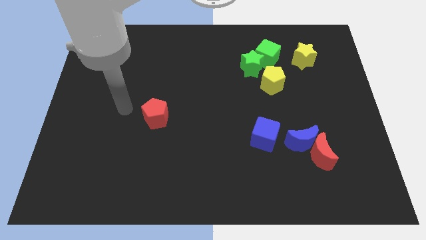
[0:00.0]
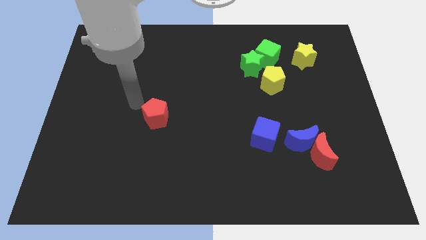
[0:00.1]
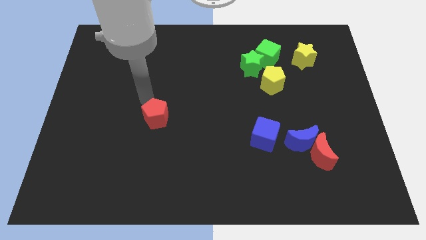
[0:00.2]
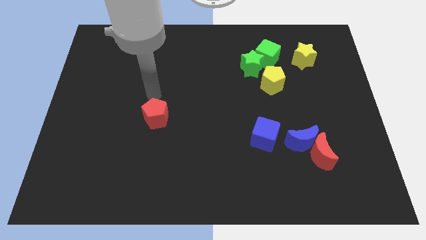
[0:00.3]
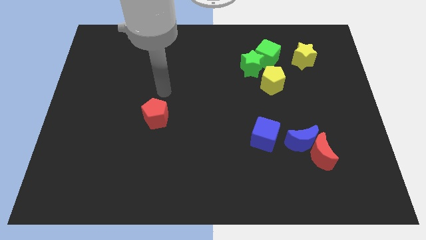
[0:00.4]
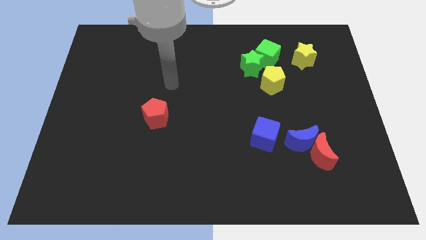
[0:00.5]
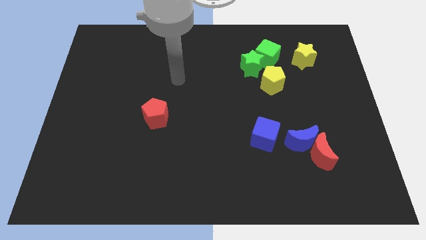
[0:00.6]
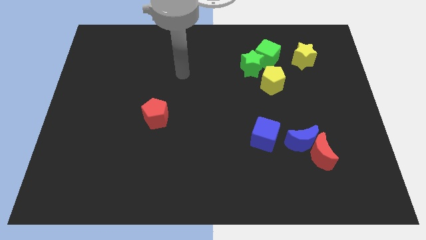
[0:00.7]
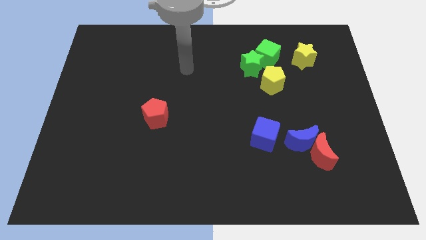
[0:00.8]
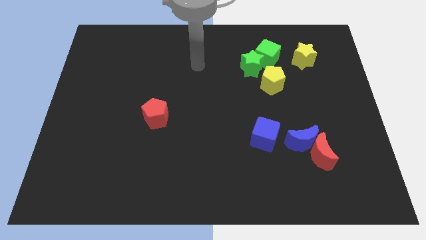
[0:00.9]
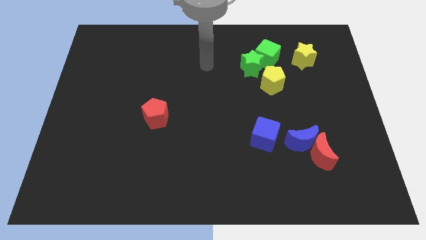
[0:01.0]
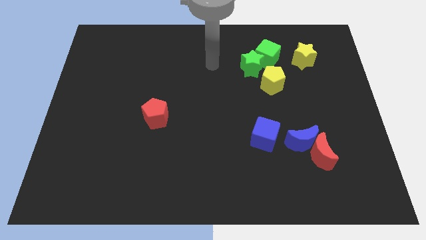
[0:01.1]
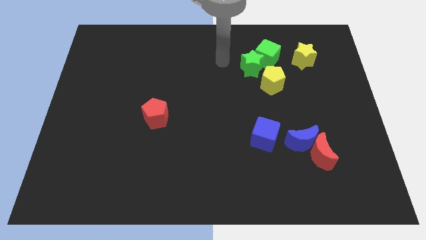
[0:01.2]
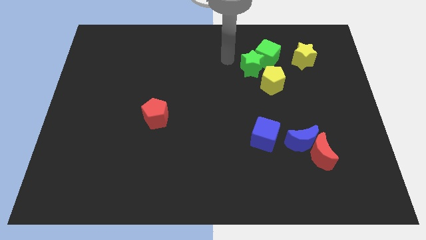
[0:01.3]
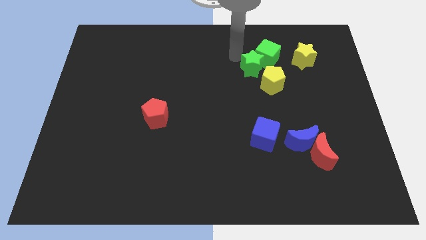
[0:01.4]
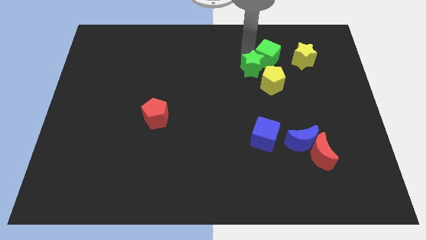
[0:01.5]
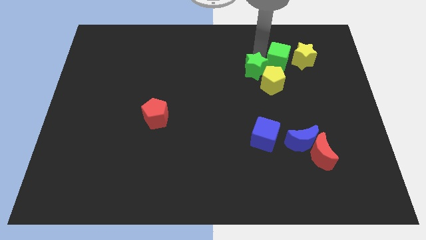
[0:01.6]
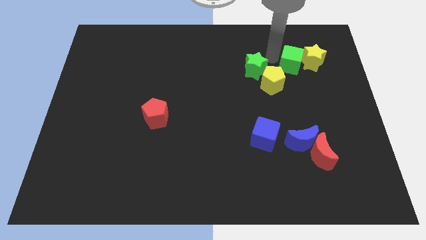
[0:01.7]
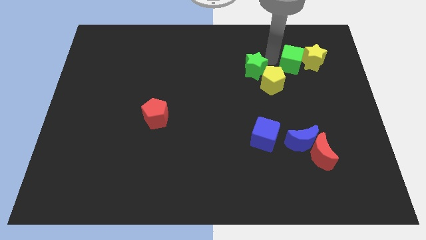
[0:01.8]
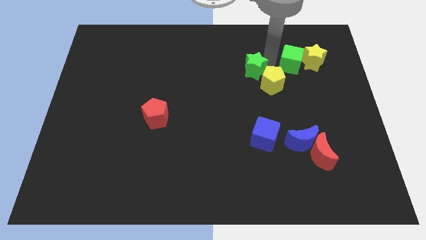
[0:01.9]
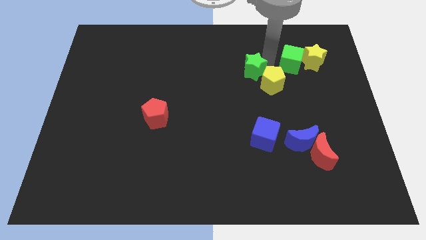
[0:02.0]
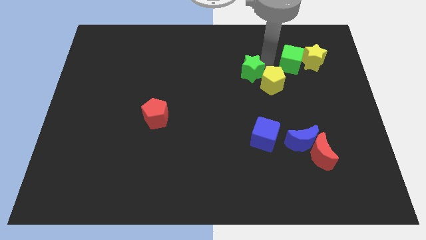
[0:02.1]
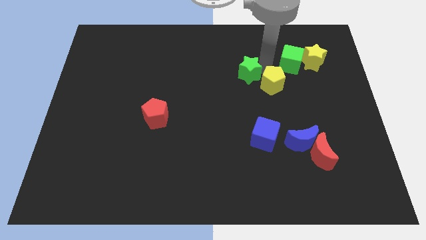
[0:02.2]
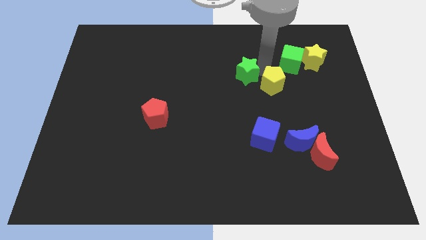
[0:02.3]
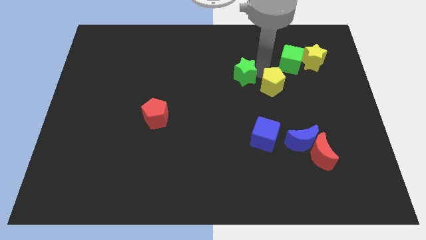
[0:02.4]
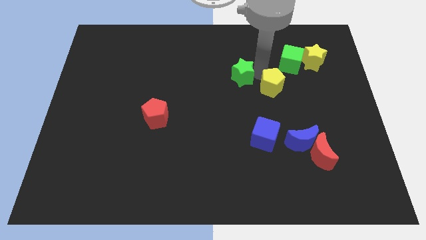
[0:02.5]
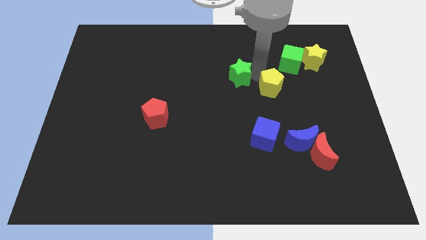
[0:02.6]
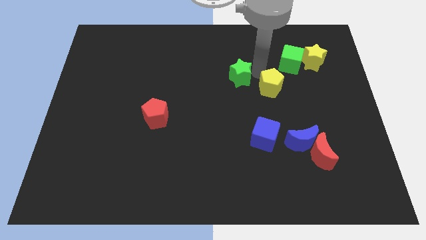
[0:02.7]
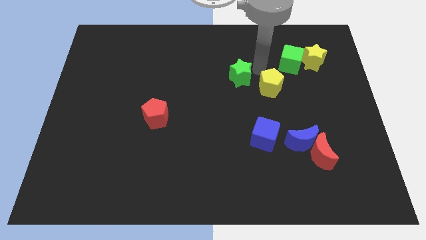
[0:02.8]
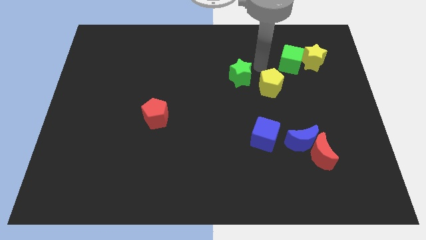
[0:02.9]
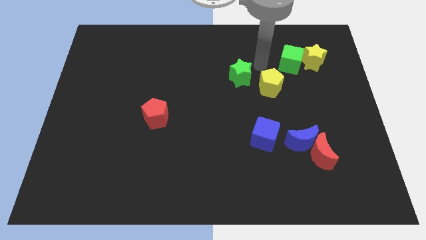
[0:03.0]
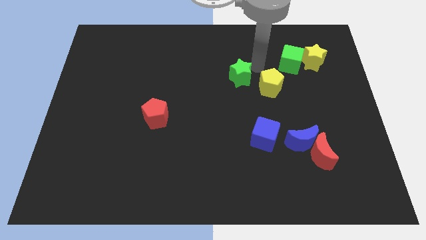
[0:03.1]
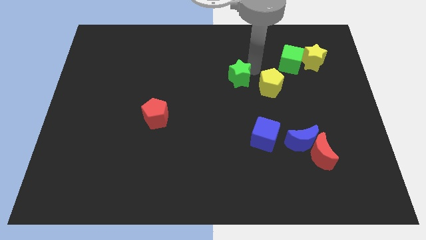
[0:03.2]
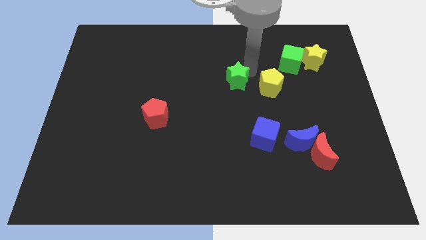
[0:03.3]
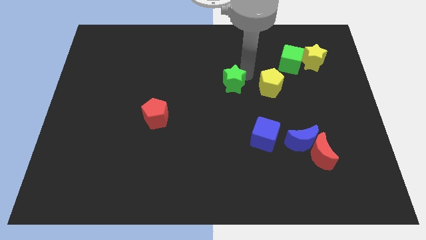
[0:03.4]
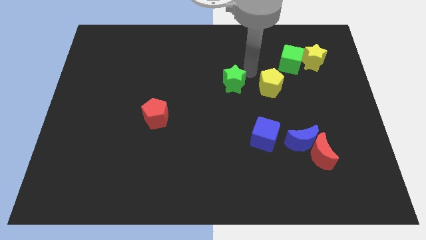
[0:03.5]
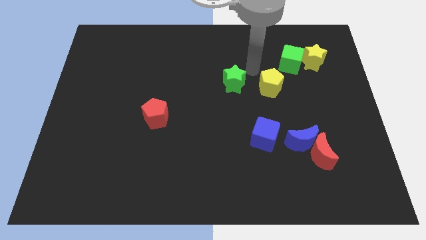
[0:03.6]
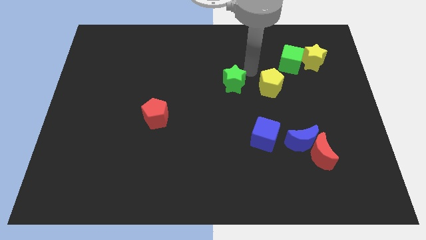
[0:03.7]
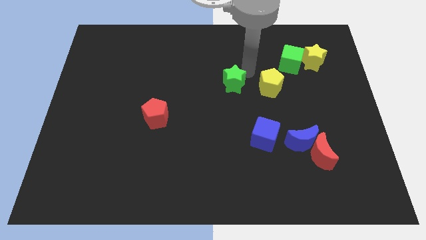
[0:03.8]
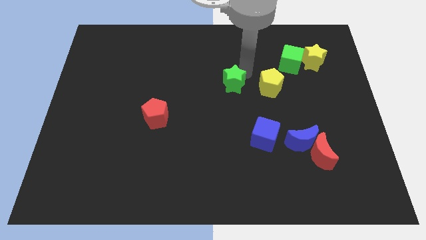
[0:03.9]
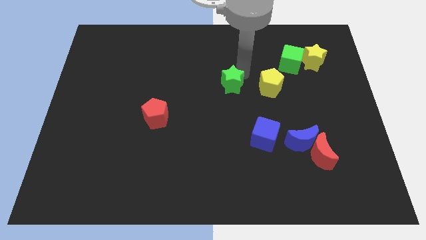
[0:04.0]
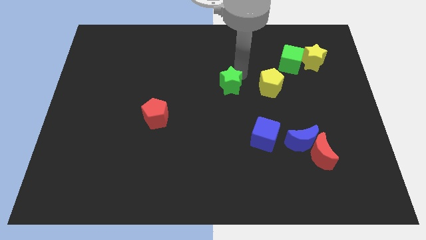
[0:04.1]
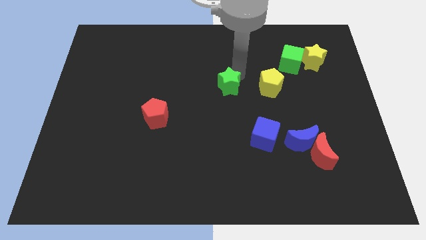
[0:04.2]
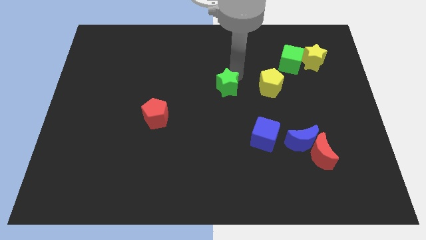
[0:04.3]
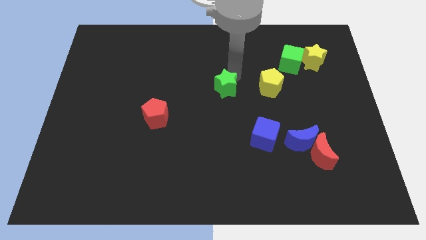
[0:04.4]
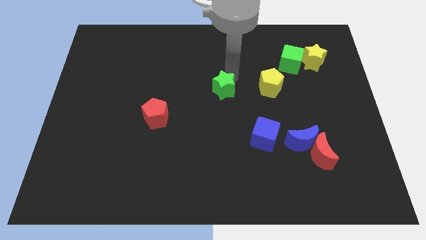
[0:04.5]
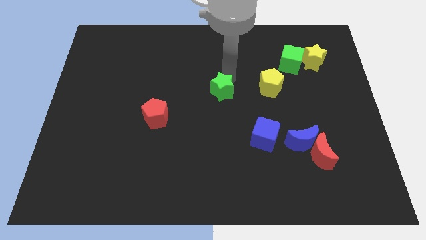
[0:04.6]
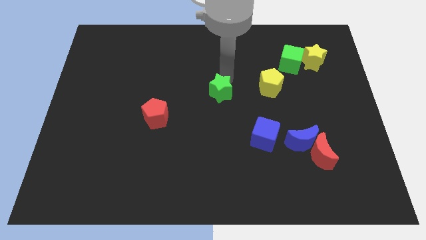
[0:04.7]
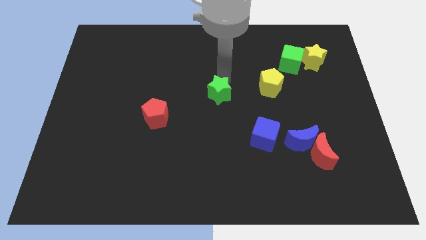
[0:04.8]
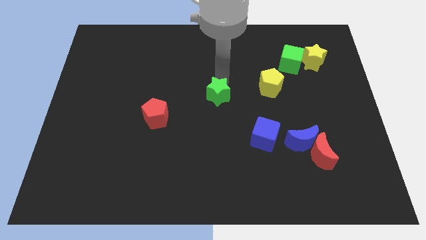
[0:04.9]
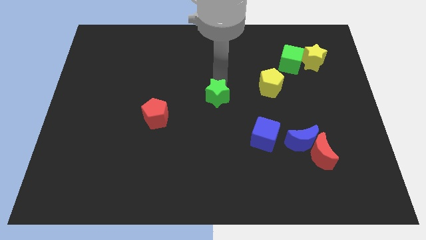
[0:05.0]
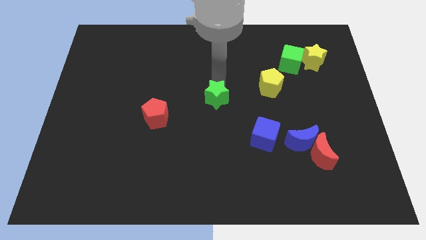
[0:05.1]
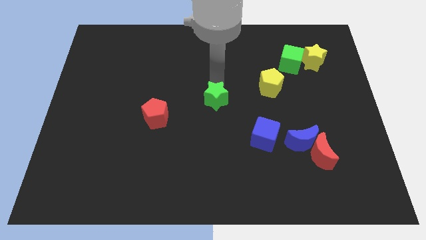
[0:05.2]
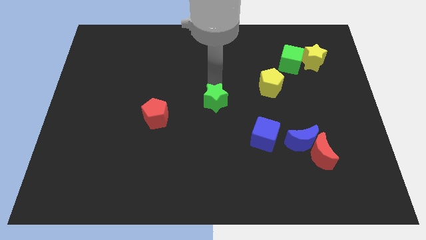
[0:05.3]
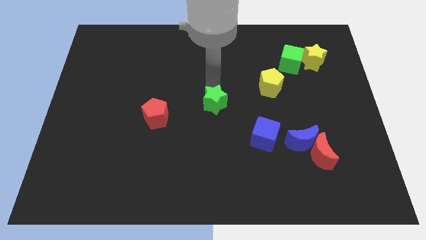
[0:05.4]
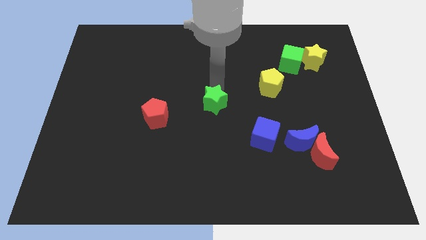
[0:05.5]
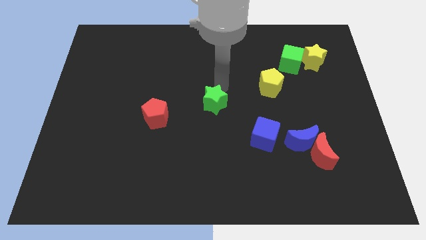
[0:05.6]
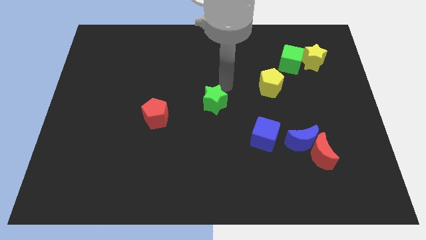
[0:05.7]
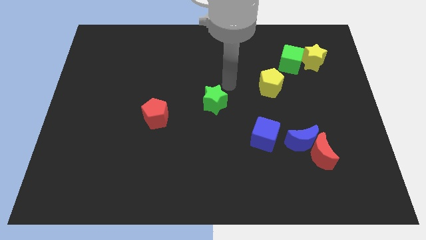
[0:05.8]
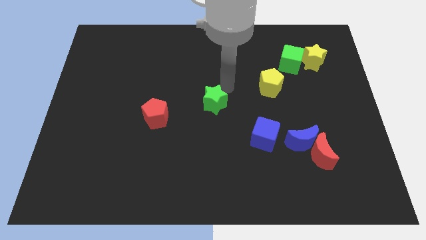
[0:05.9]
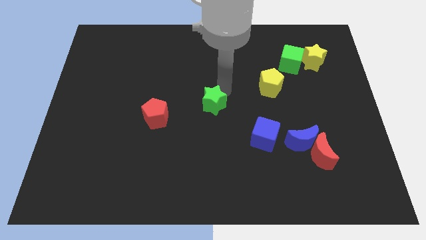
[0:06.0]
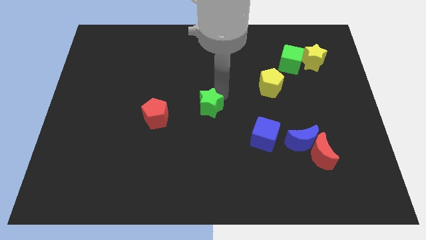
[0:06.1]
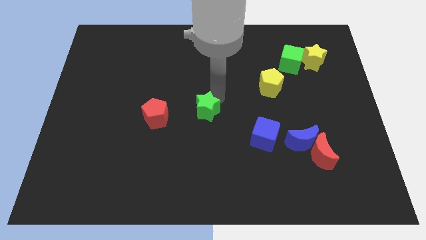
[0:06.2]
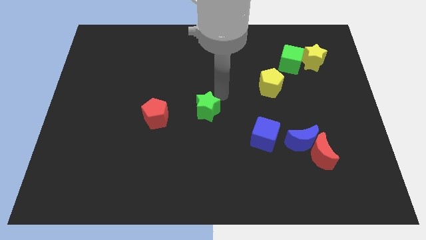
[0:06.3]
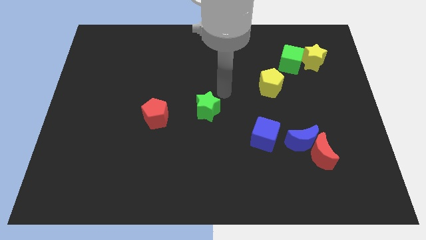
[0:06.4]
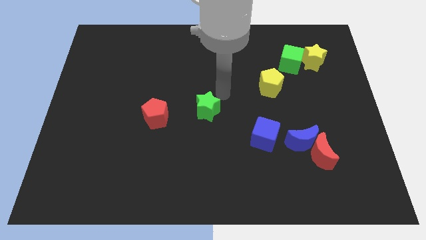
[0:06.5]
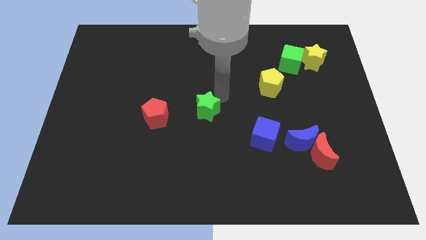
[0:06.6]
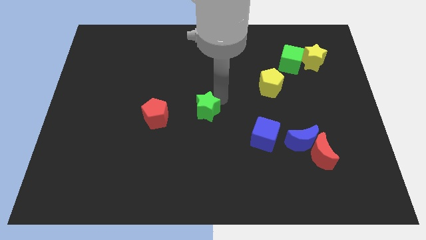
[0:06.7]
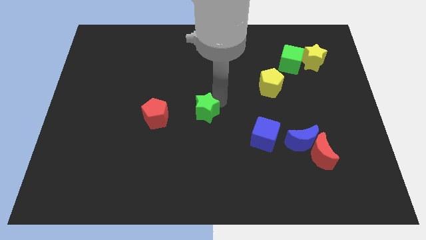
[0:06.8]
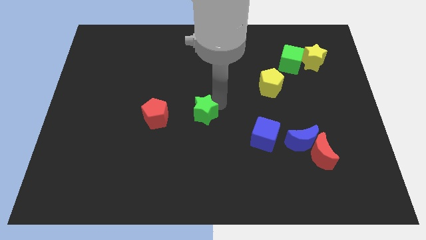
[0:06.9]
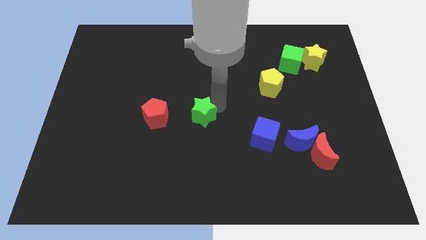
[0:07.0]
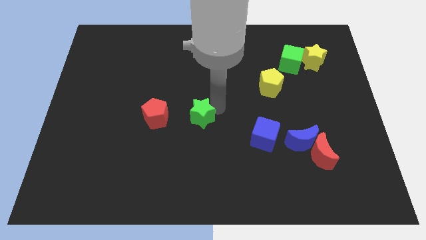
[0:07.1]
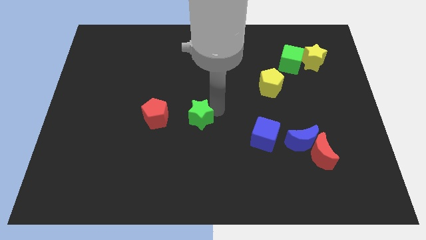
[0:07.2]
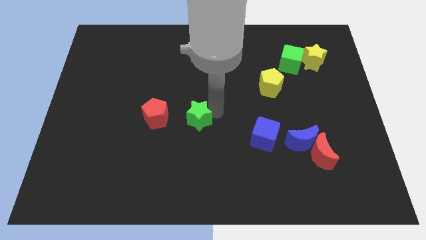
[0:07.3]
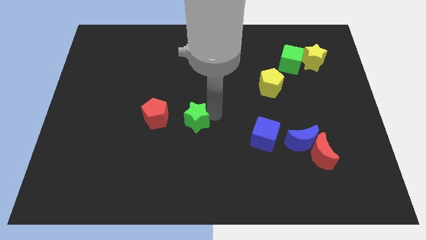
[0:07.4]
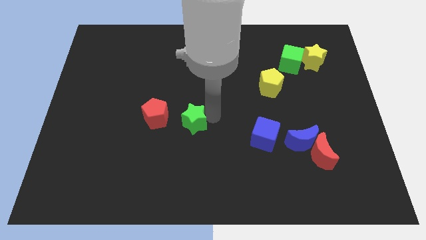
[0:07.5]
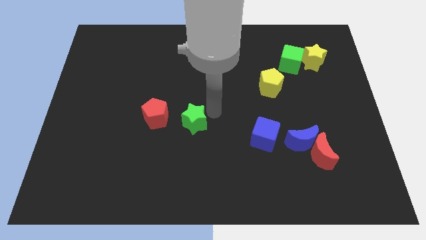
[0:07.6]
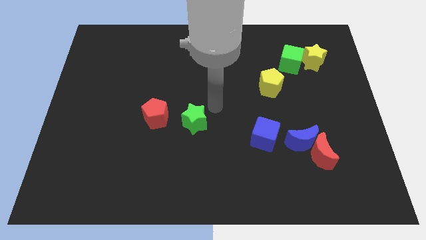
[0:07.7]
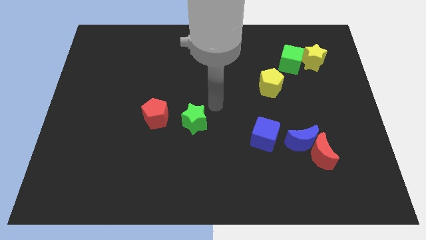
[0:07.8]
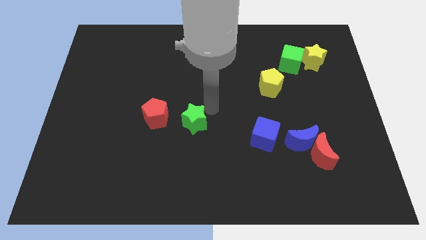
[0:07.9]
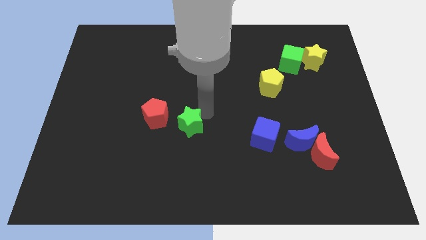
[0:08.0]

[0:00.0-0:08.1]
move the green star diagonally down and to the right of the red pentagon
